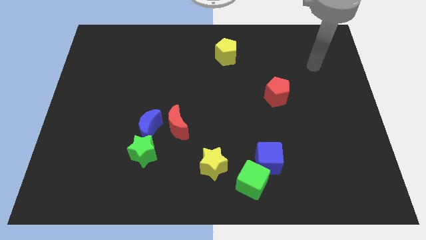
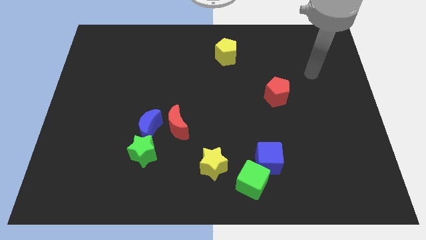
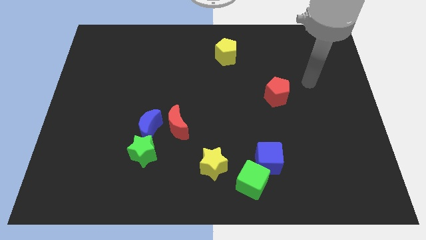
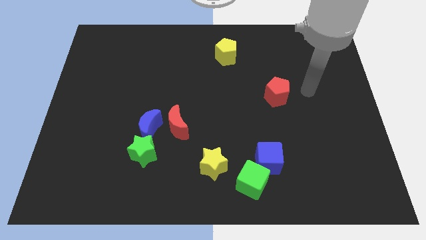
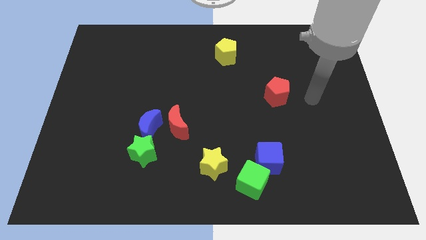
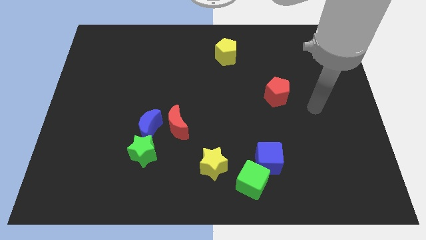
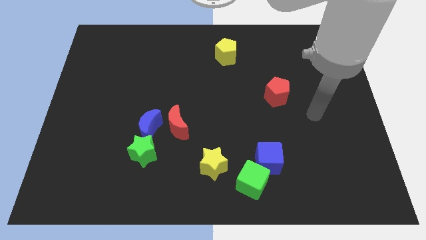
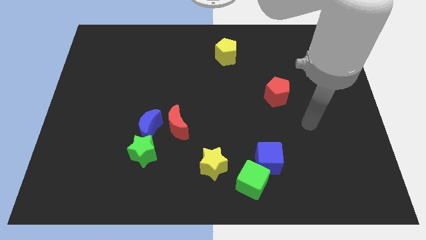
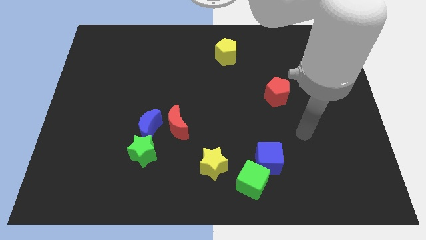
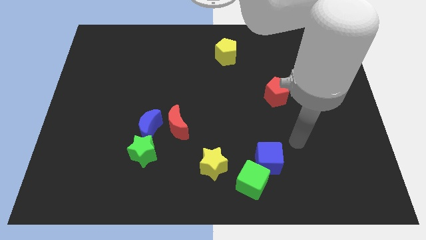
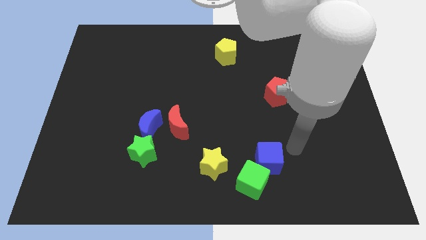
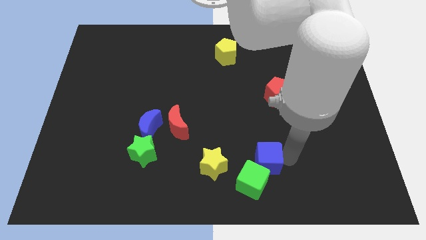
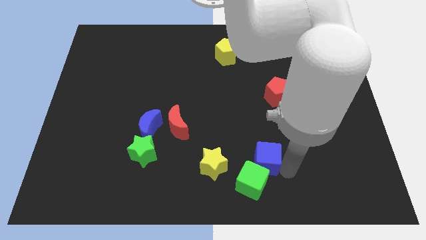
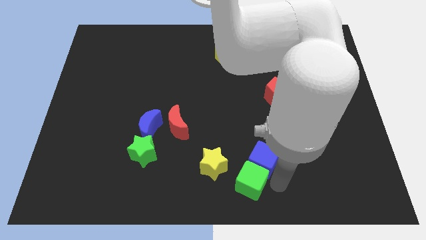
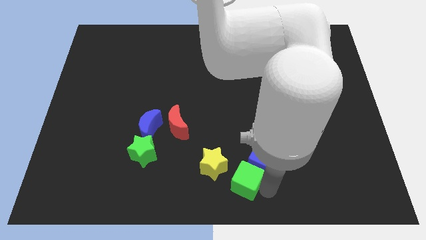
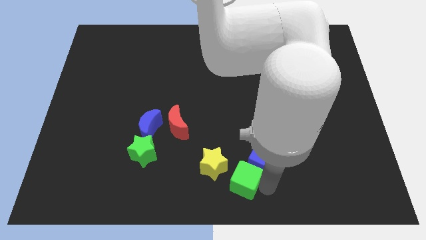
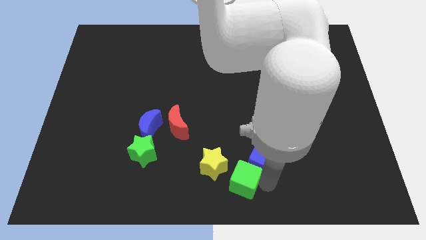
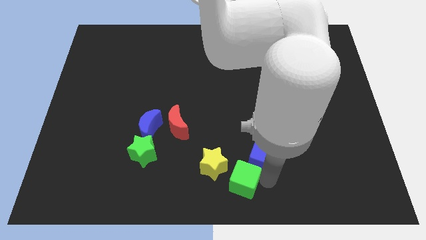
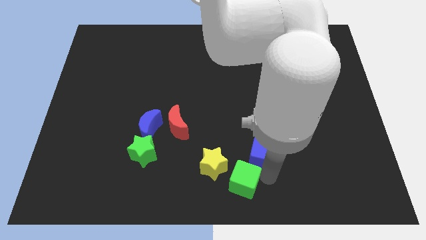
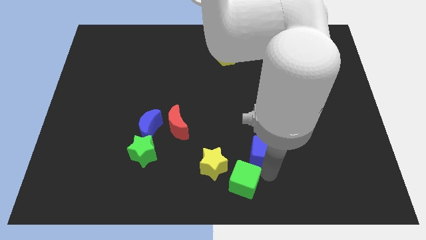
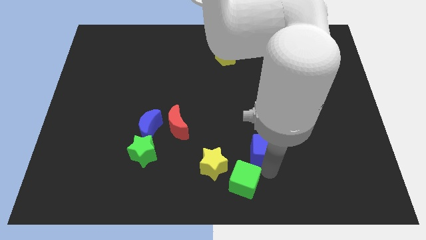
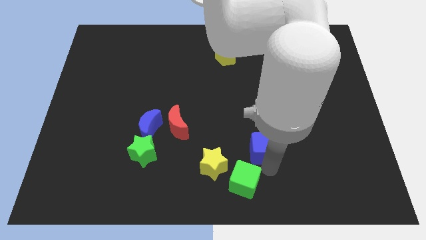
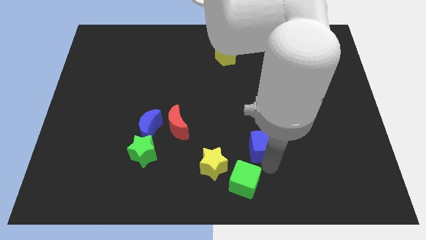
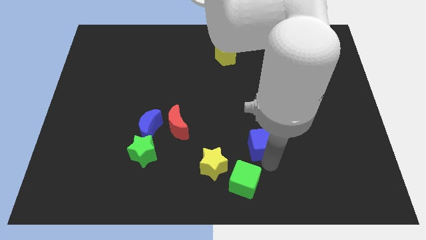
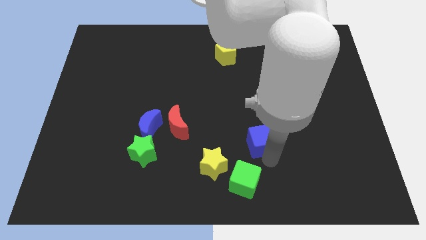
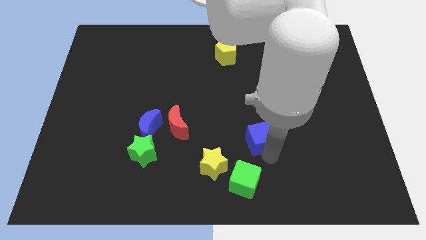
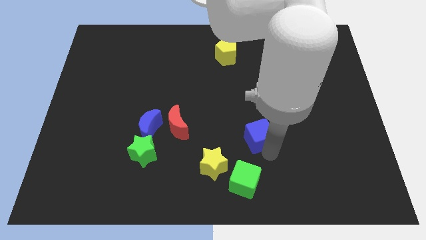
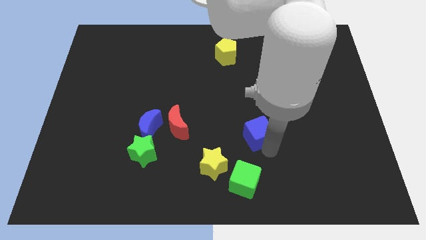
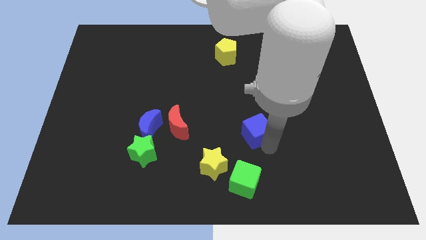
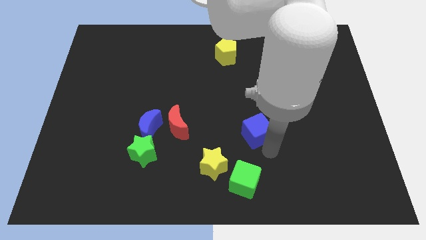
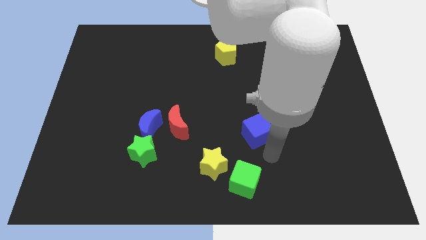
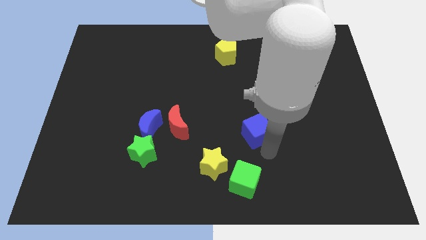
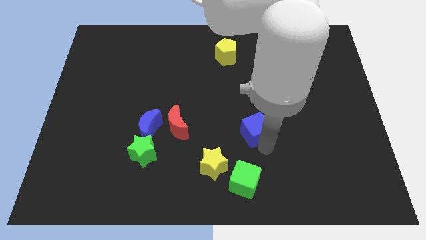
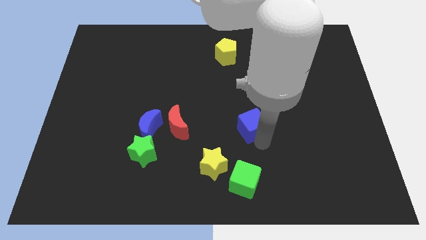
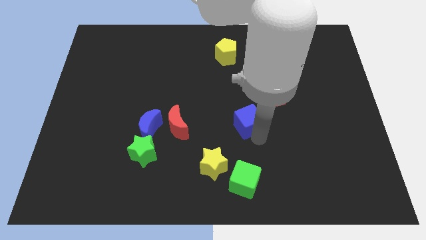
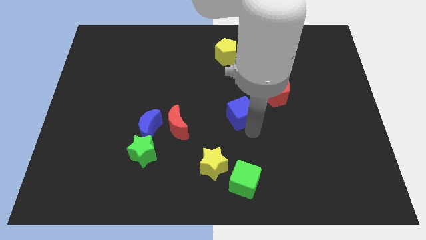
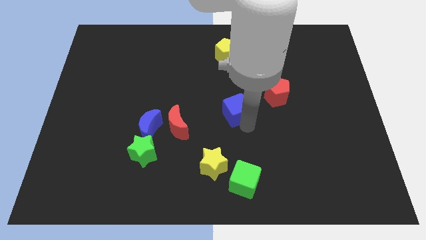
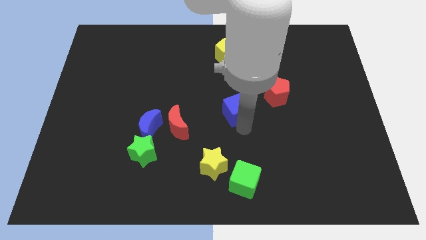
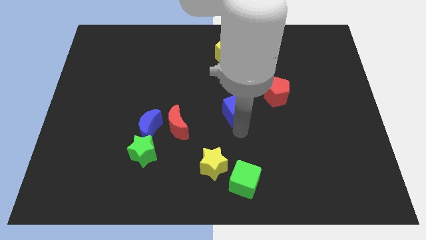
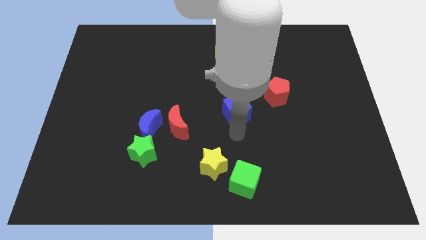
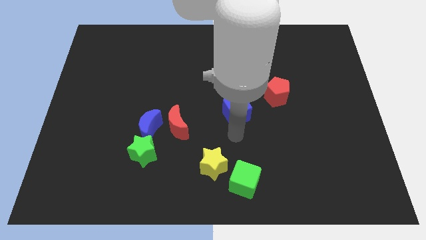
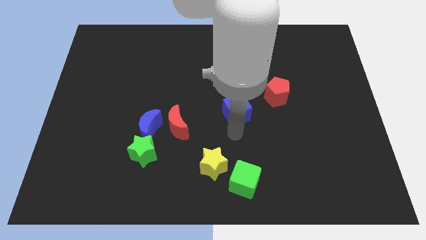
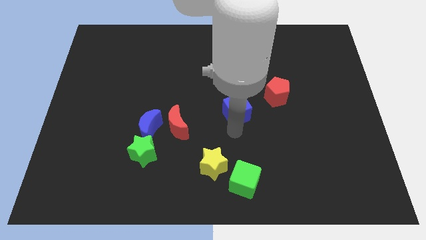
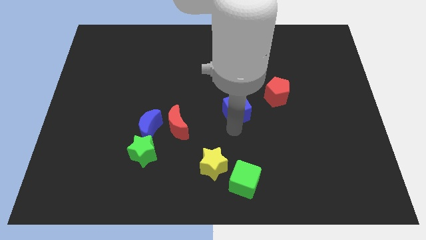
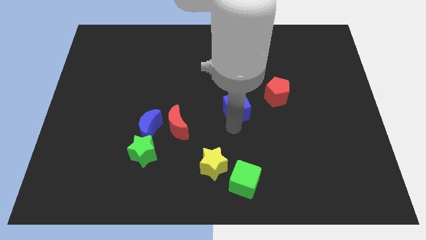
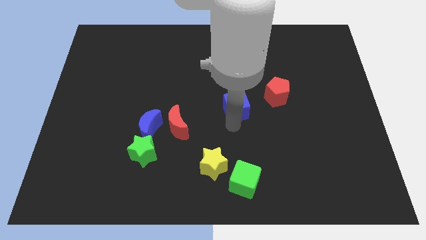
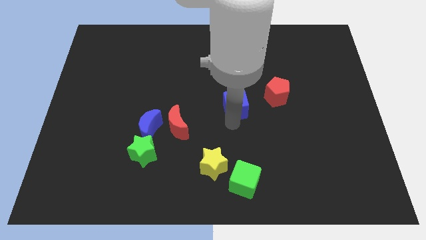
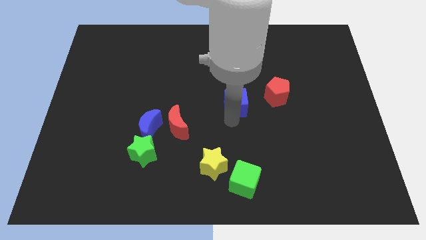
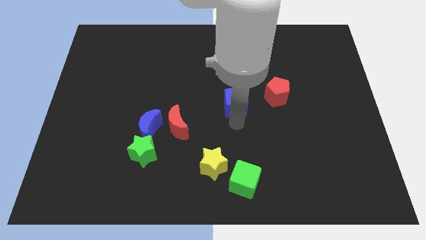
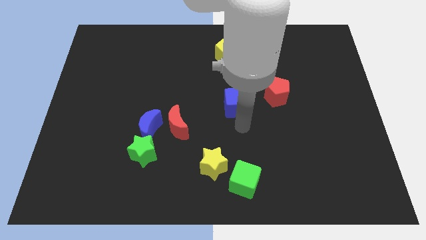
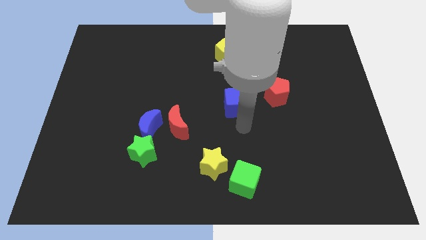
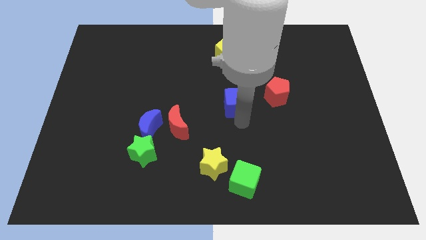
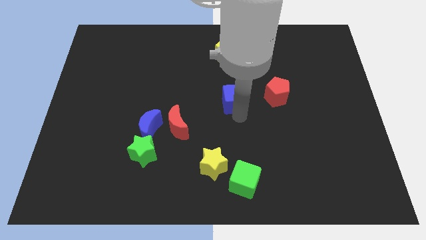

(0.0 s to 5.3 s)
push the blue cube to the bottom side of the yellow pentagon

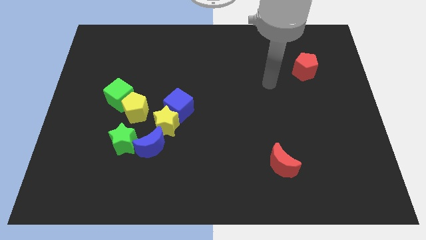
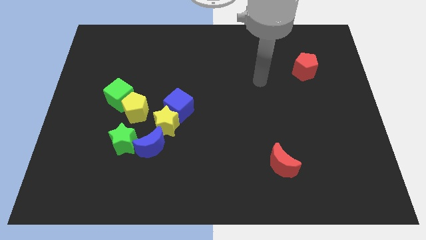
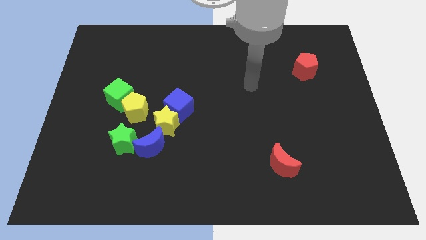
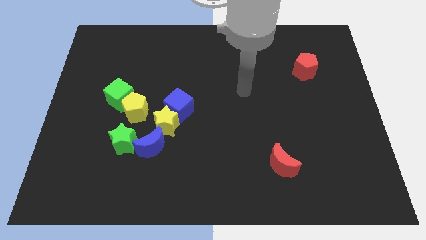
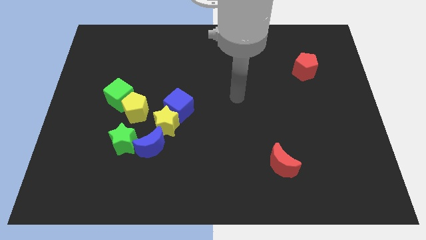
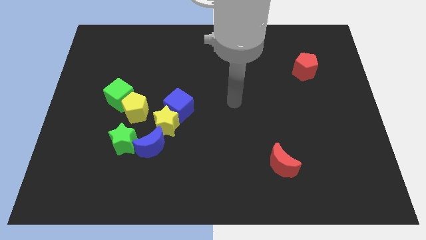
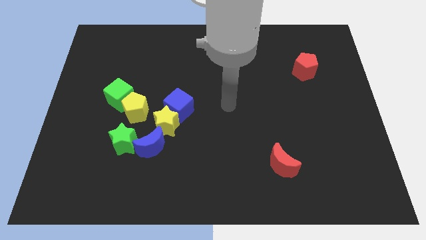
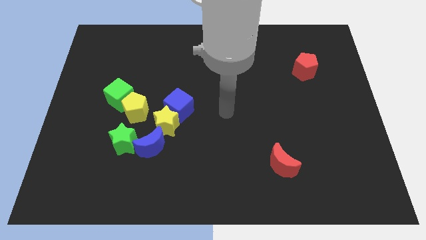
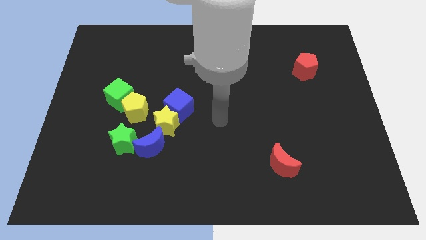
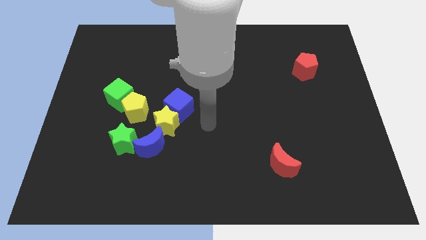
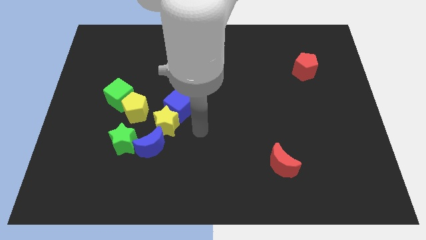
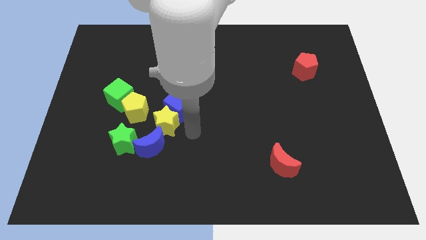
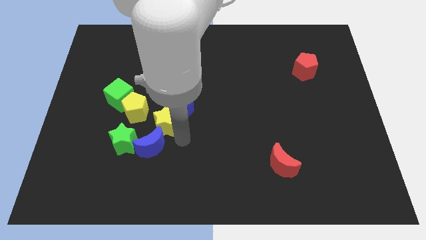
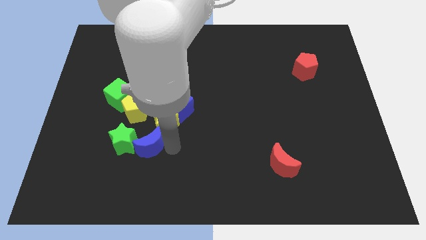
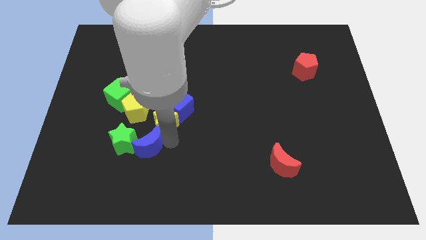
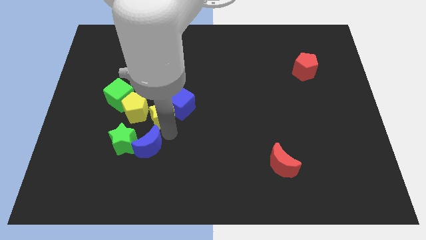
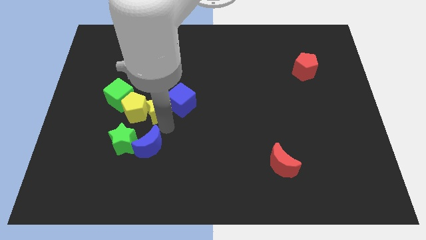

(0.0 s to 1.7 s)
push the yellow star just right of the green cube

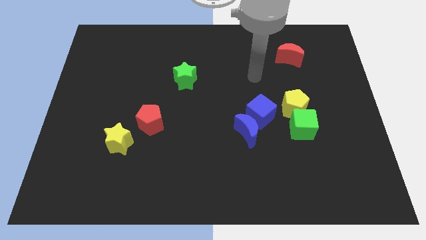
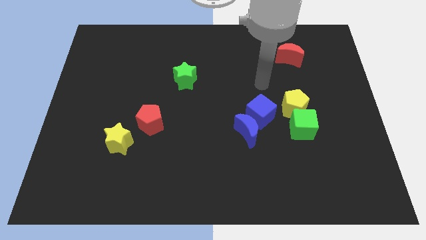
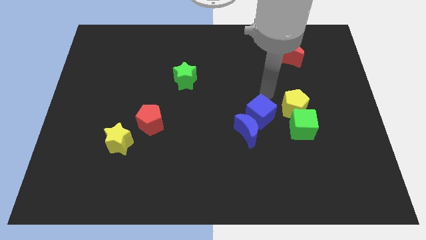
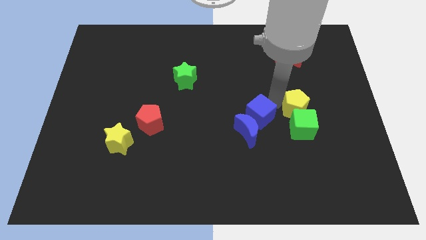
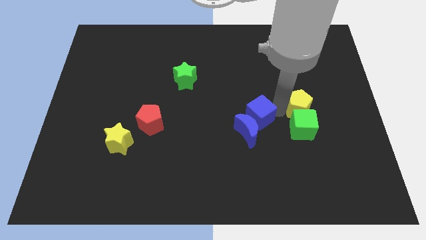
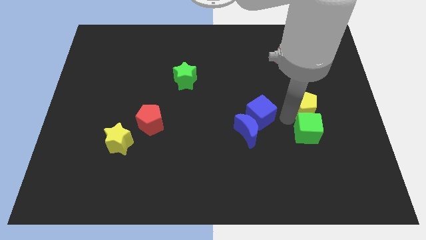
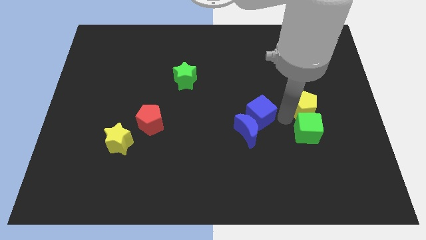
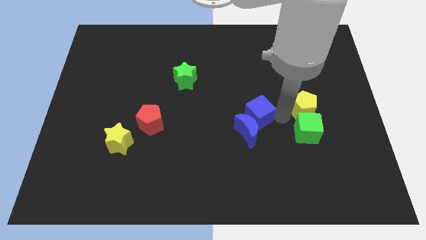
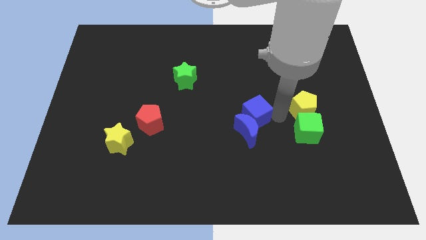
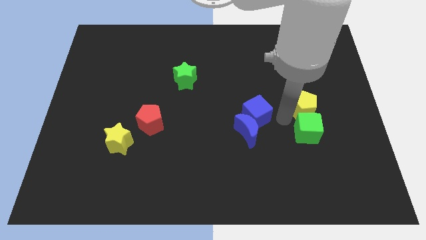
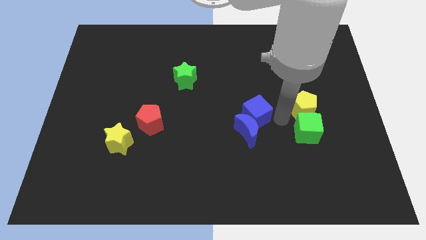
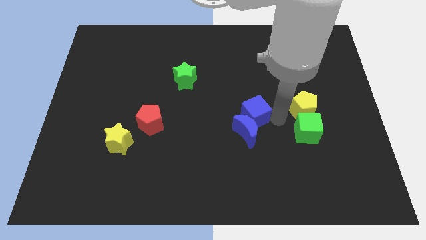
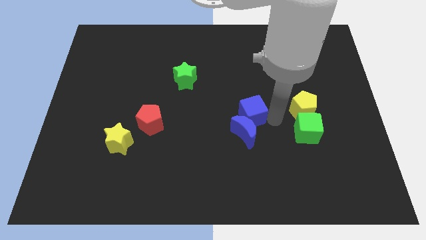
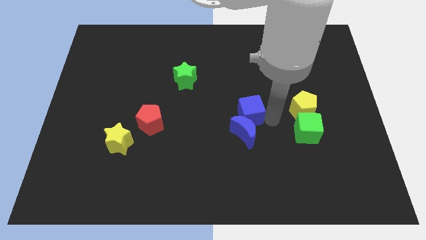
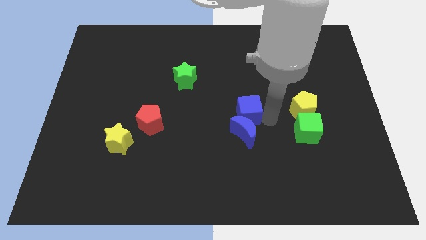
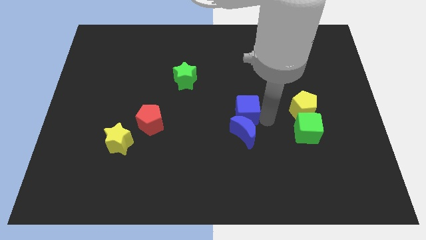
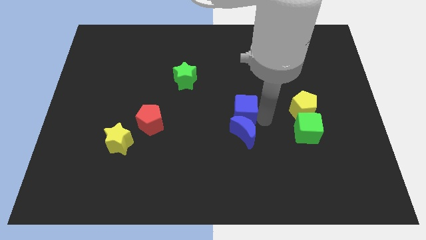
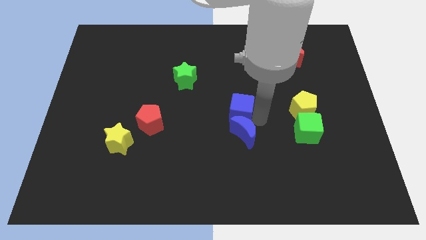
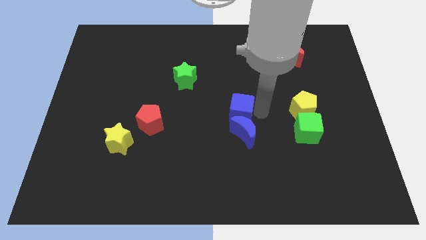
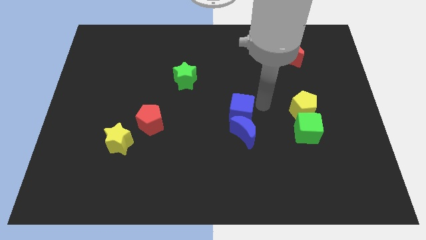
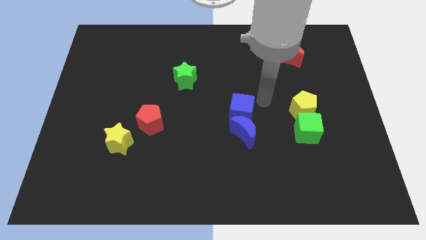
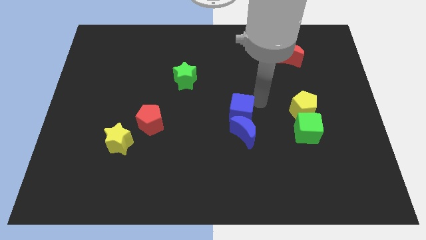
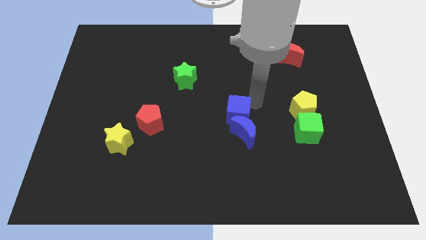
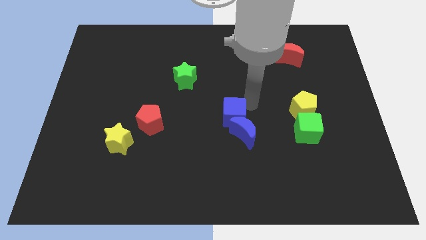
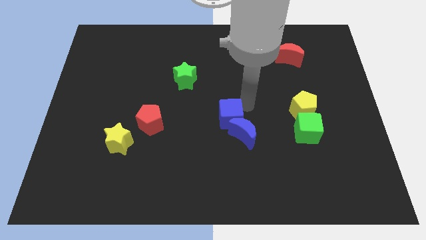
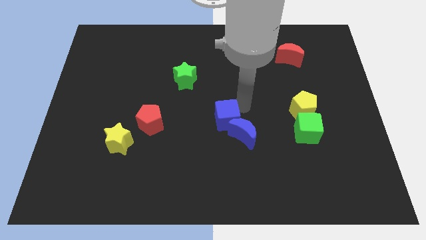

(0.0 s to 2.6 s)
move the blue cube just left of the blue moon
